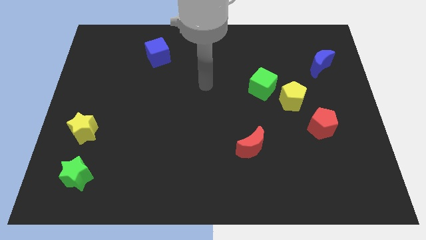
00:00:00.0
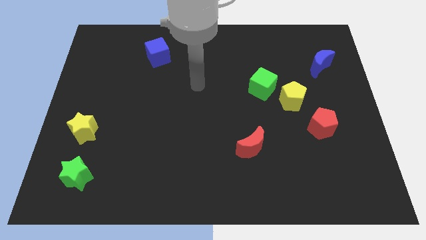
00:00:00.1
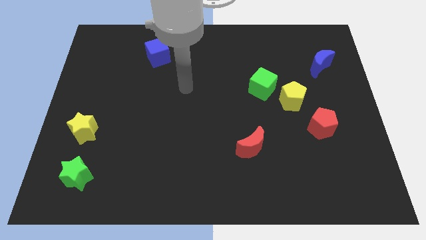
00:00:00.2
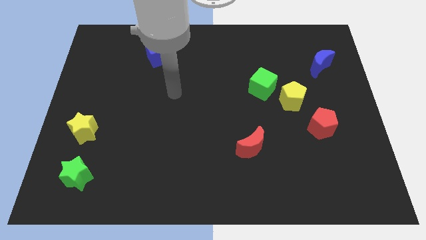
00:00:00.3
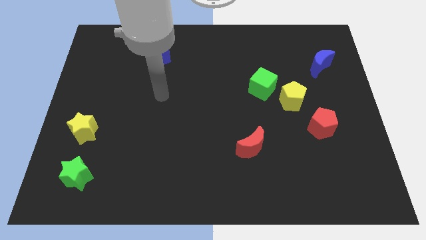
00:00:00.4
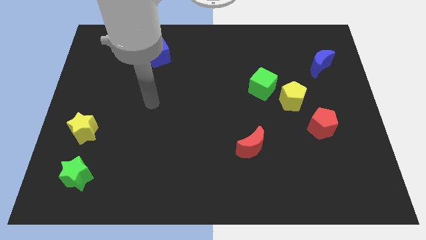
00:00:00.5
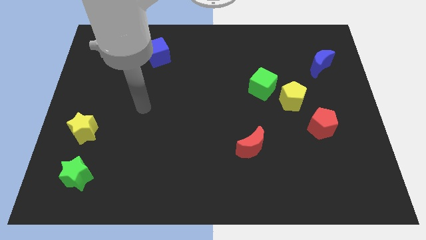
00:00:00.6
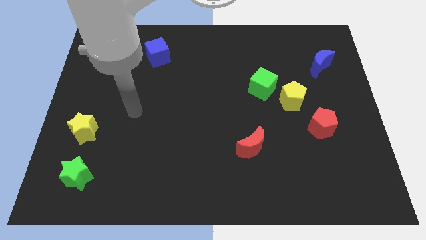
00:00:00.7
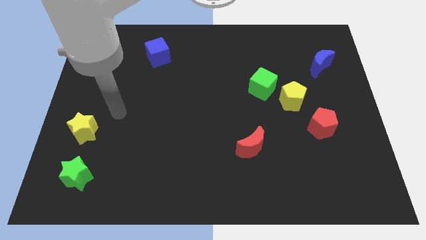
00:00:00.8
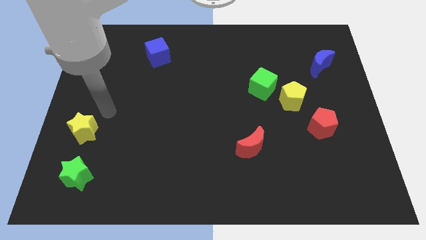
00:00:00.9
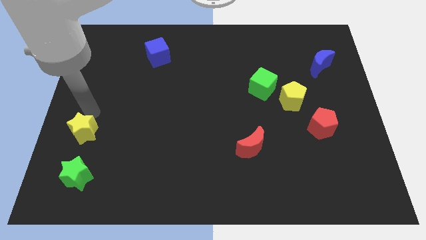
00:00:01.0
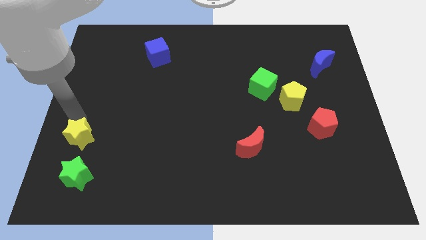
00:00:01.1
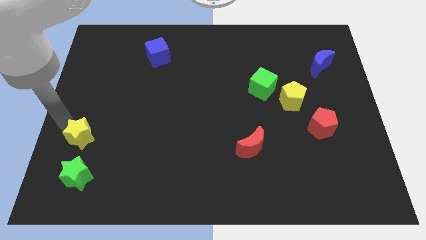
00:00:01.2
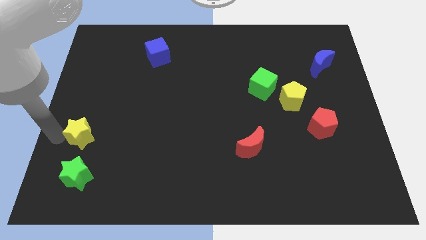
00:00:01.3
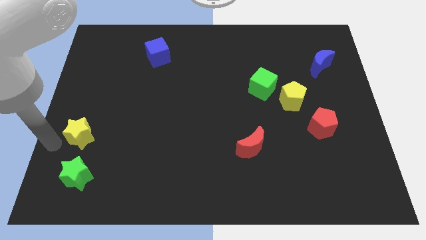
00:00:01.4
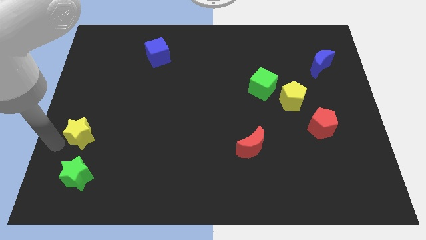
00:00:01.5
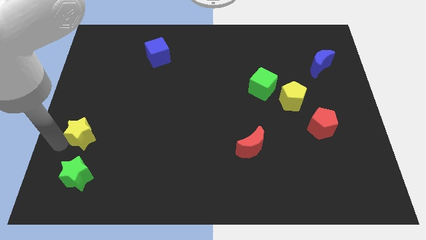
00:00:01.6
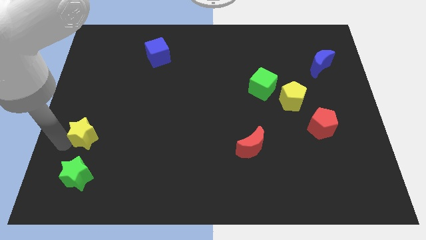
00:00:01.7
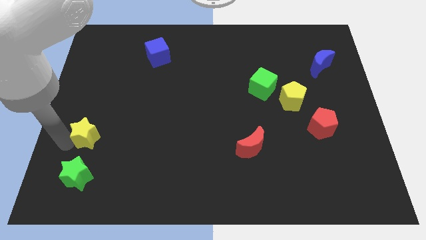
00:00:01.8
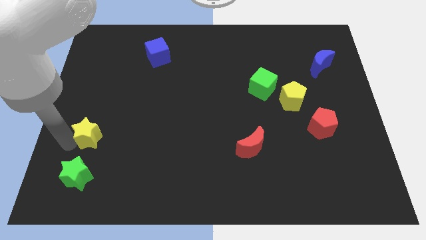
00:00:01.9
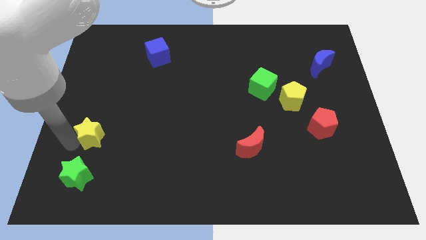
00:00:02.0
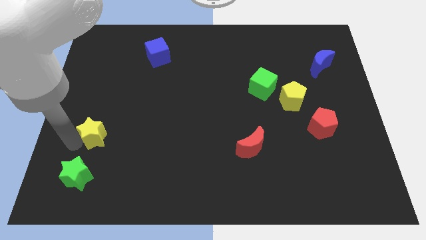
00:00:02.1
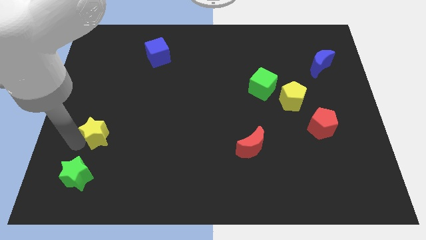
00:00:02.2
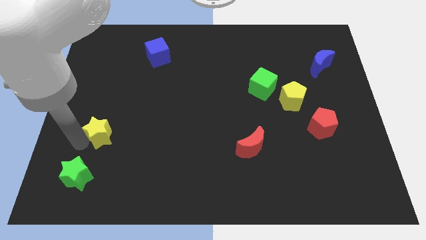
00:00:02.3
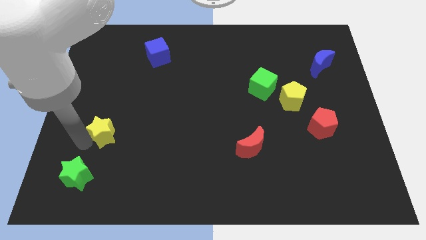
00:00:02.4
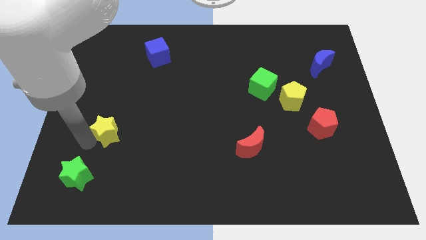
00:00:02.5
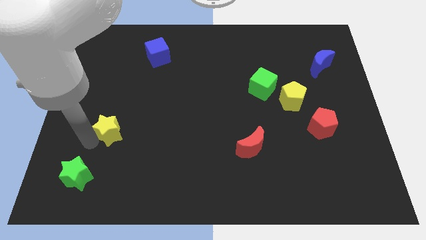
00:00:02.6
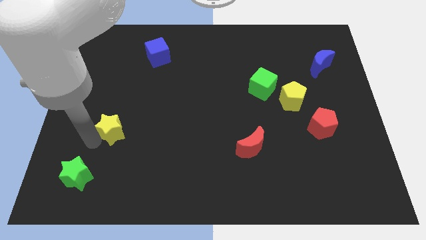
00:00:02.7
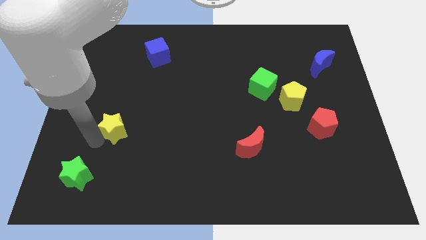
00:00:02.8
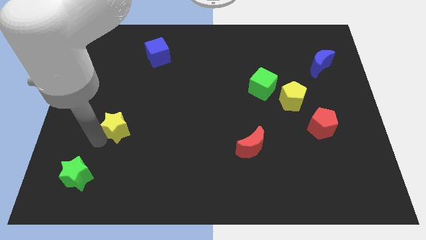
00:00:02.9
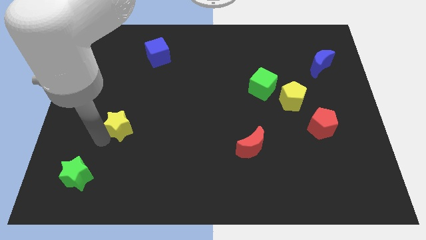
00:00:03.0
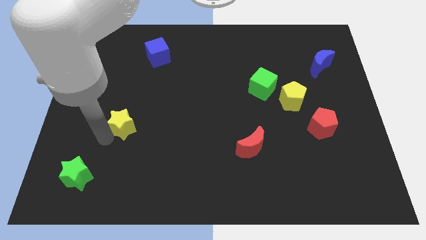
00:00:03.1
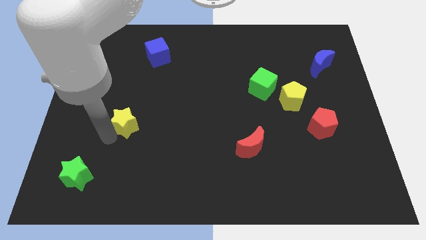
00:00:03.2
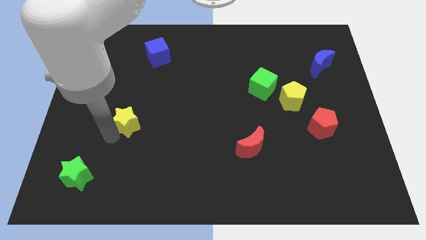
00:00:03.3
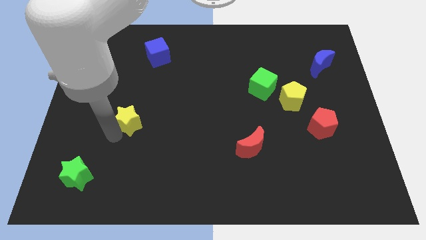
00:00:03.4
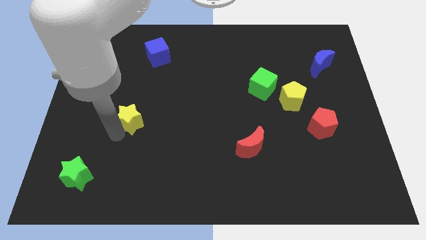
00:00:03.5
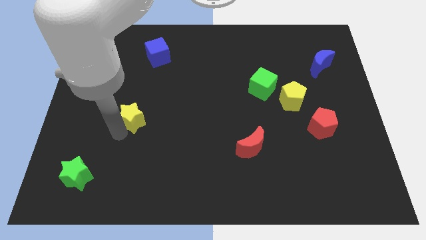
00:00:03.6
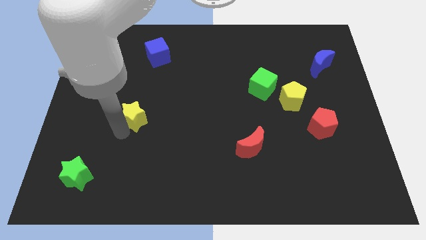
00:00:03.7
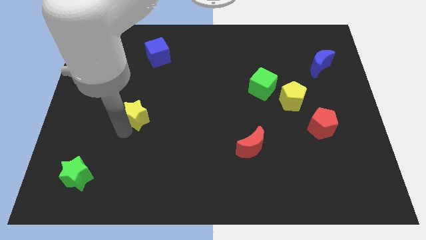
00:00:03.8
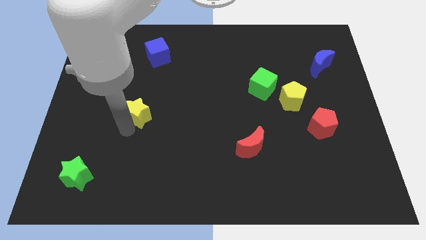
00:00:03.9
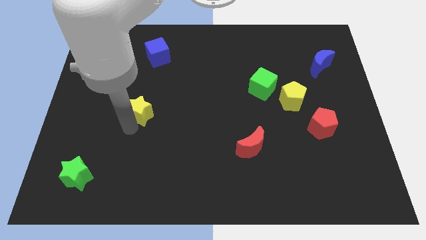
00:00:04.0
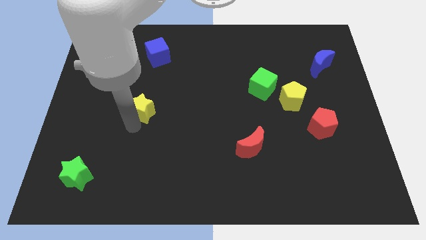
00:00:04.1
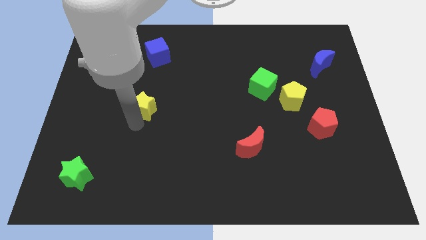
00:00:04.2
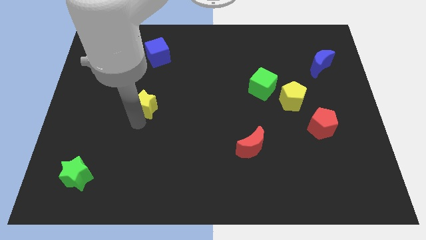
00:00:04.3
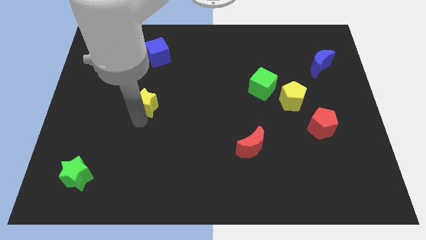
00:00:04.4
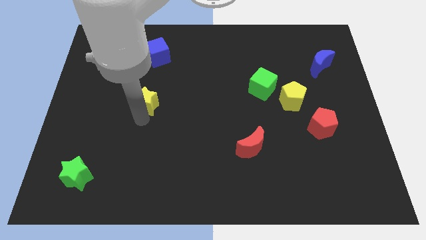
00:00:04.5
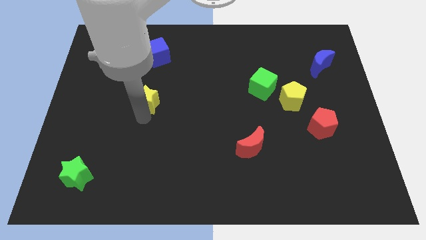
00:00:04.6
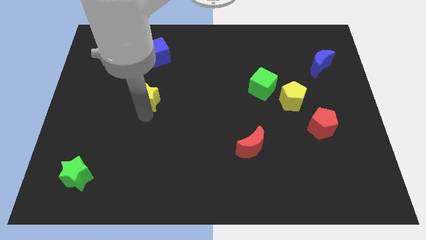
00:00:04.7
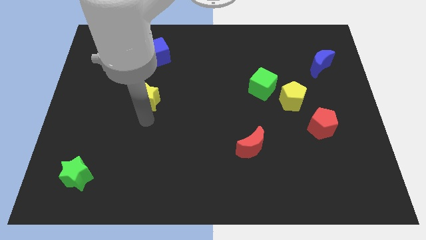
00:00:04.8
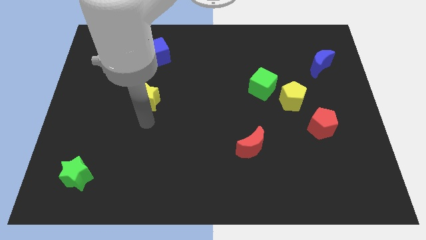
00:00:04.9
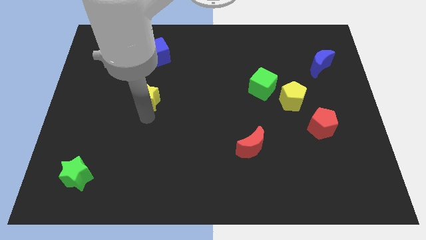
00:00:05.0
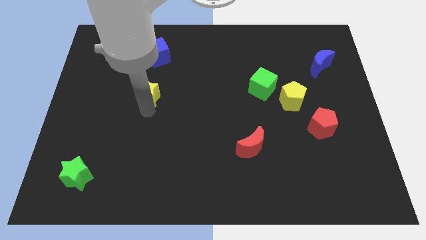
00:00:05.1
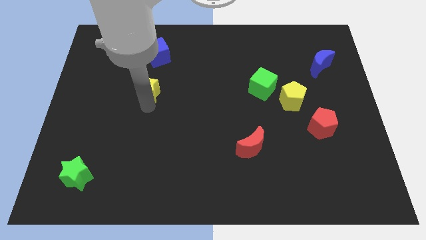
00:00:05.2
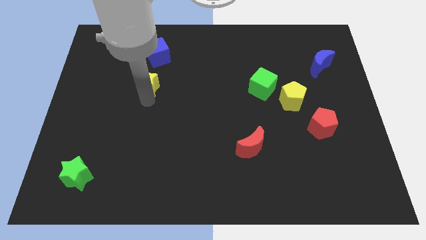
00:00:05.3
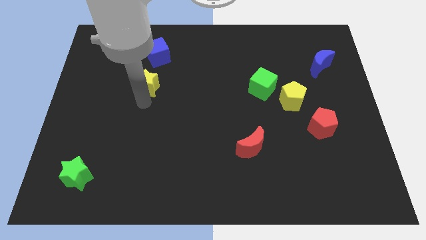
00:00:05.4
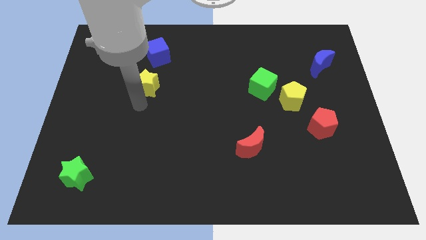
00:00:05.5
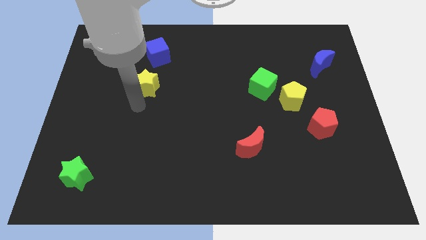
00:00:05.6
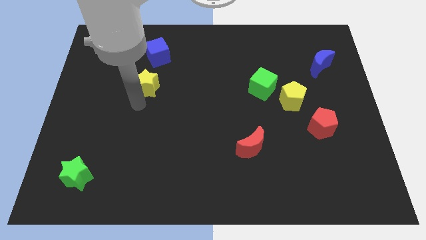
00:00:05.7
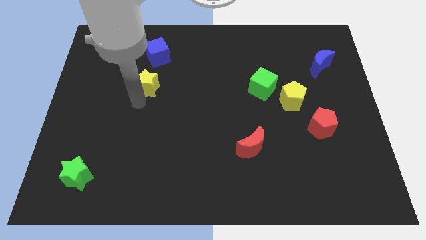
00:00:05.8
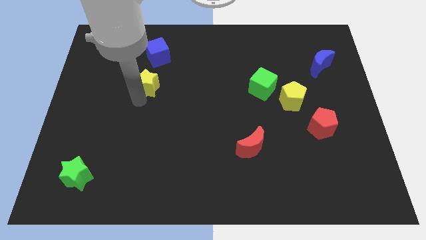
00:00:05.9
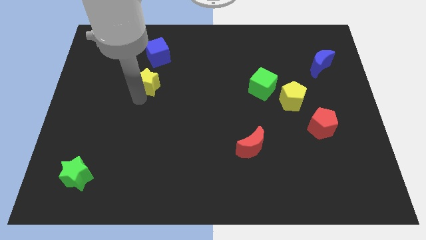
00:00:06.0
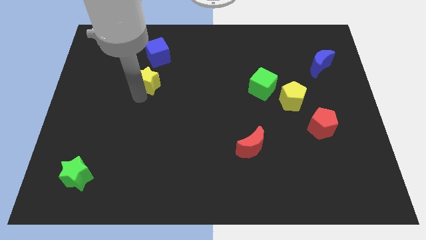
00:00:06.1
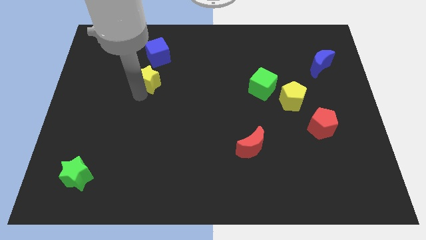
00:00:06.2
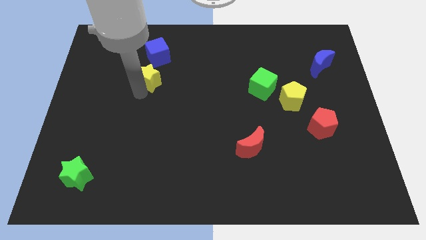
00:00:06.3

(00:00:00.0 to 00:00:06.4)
slide the yellow star upwards and right diagonally

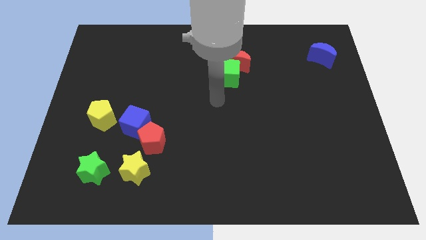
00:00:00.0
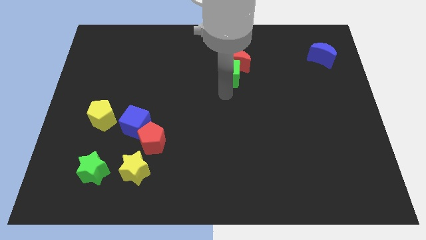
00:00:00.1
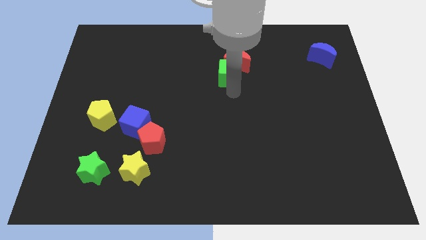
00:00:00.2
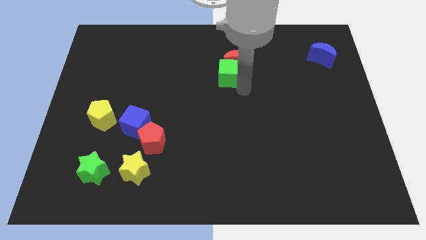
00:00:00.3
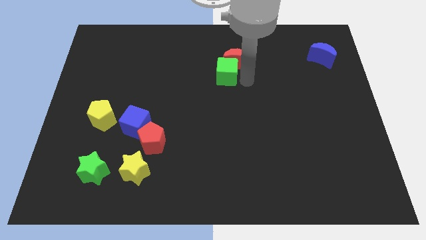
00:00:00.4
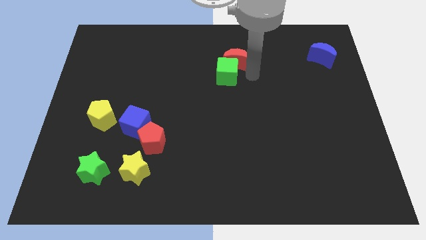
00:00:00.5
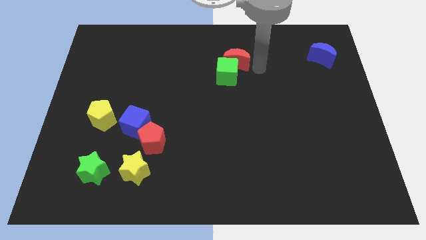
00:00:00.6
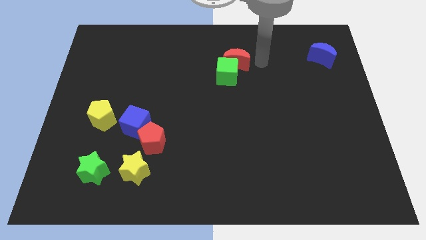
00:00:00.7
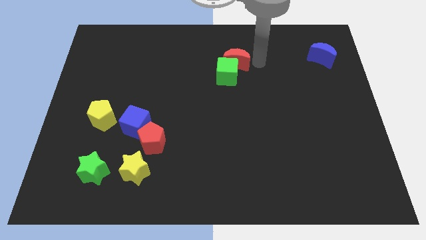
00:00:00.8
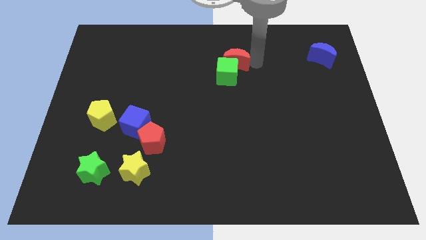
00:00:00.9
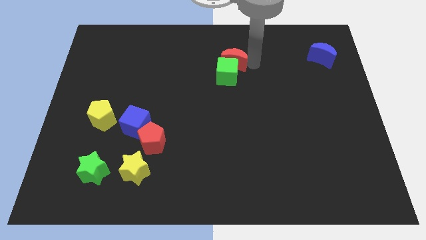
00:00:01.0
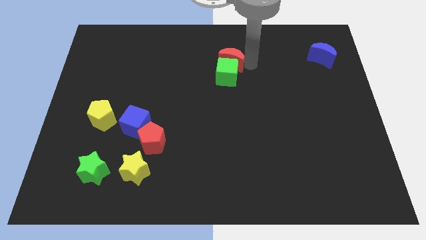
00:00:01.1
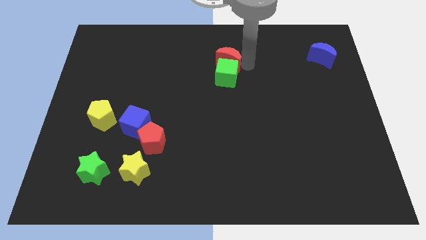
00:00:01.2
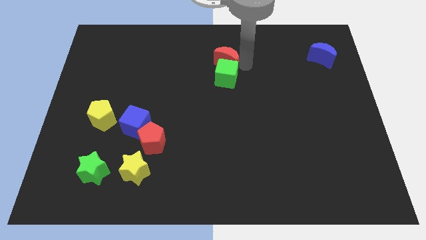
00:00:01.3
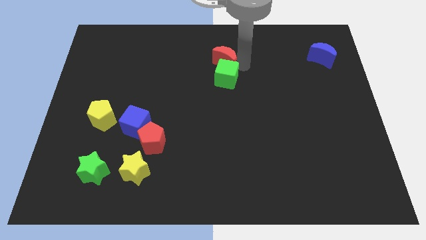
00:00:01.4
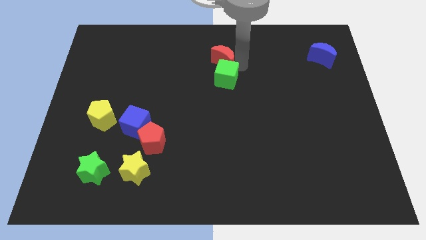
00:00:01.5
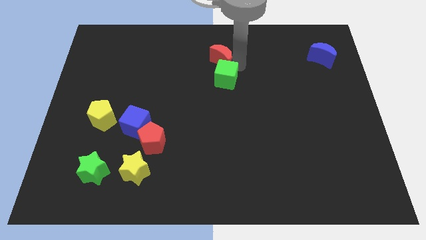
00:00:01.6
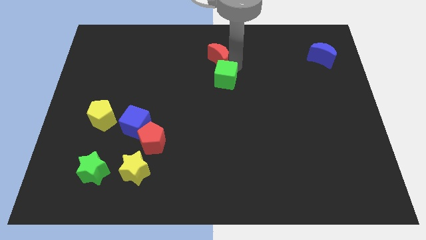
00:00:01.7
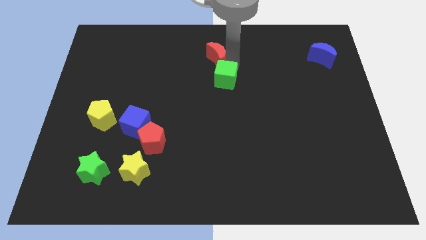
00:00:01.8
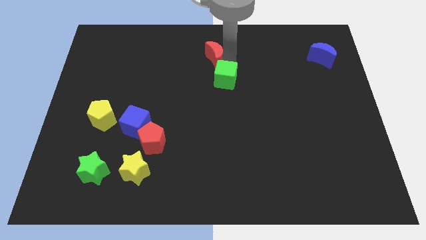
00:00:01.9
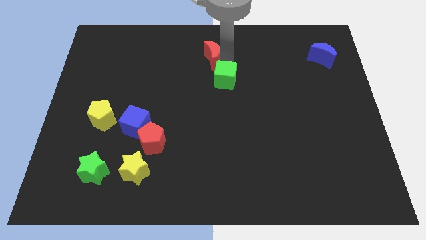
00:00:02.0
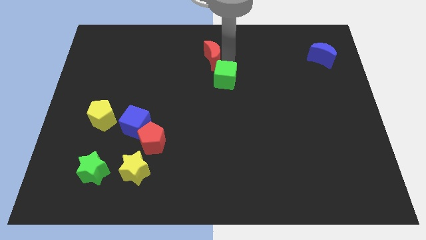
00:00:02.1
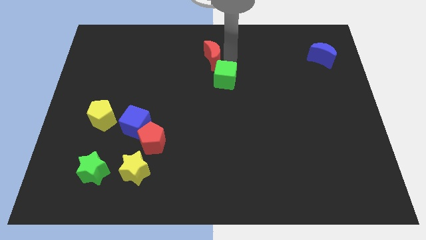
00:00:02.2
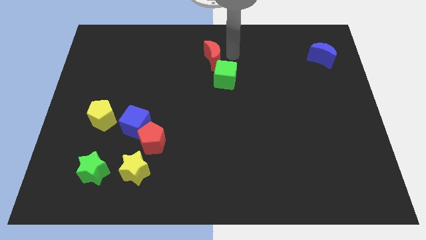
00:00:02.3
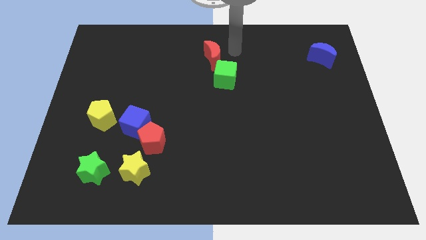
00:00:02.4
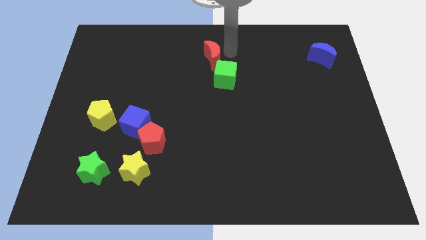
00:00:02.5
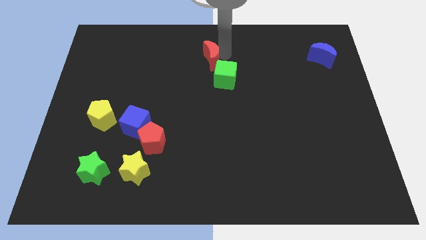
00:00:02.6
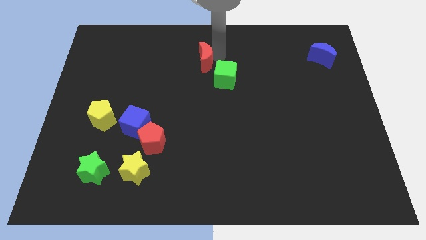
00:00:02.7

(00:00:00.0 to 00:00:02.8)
push the red moon to the left a little
